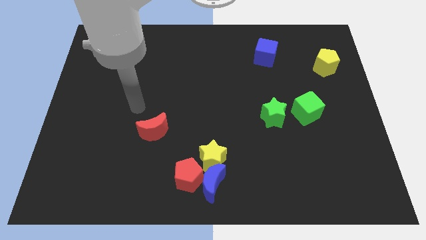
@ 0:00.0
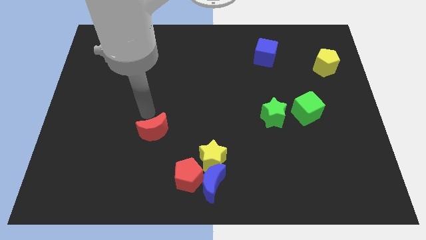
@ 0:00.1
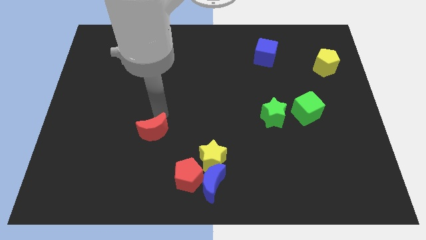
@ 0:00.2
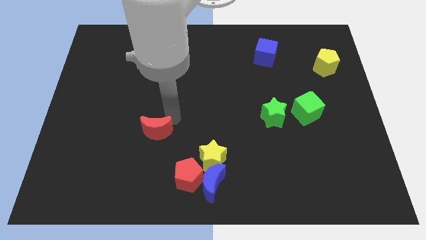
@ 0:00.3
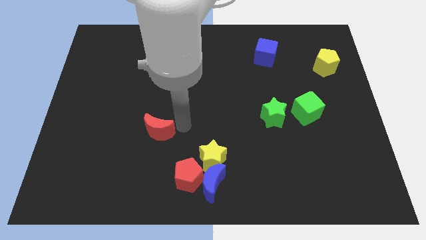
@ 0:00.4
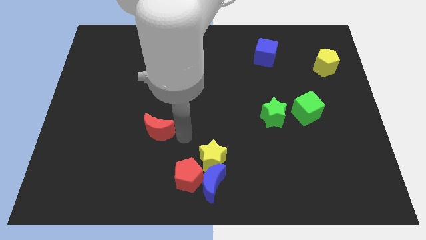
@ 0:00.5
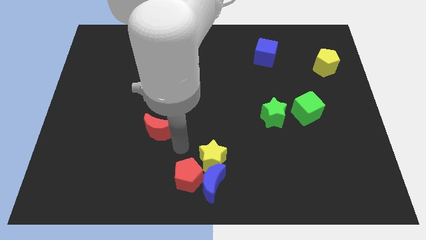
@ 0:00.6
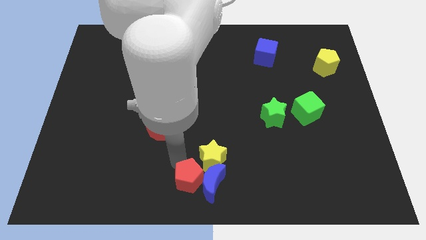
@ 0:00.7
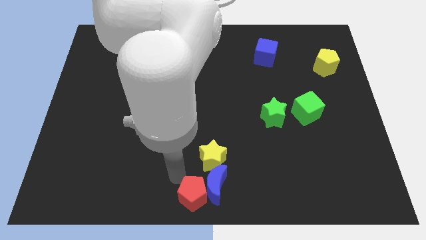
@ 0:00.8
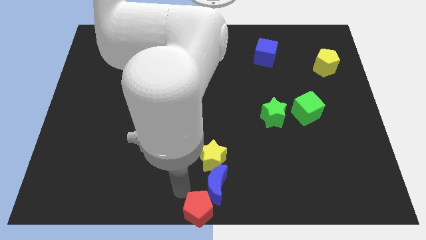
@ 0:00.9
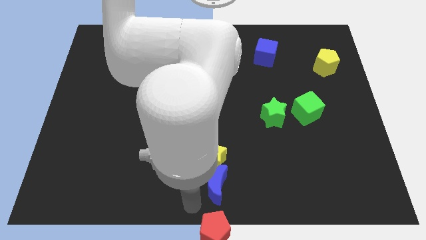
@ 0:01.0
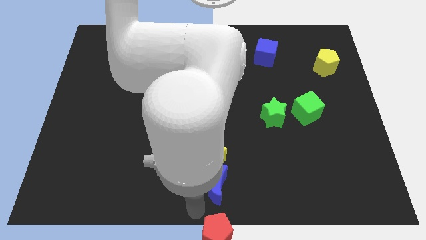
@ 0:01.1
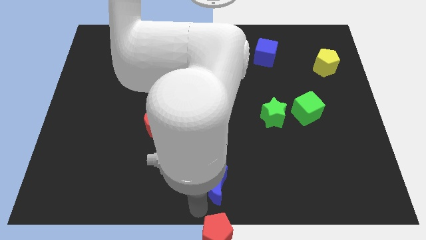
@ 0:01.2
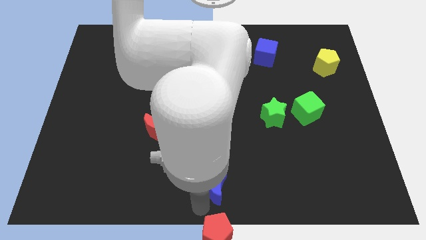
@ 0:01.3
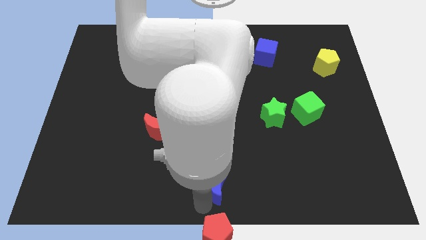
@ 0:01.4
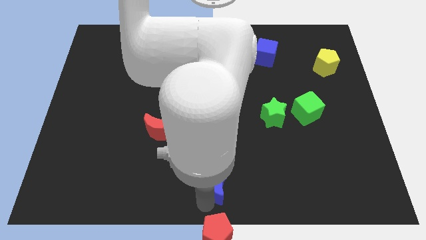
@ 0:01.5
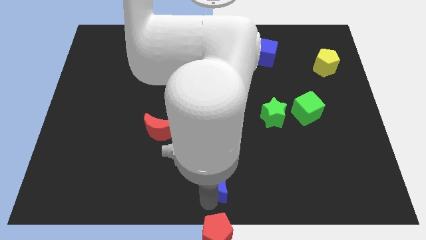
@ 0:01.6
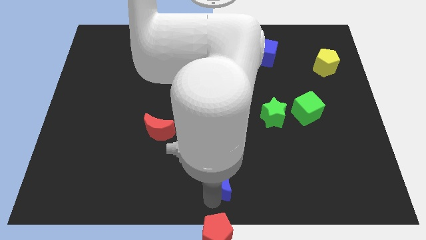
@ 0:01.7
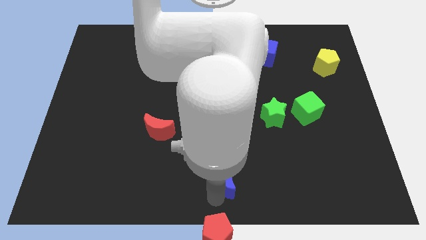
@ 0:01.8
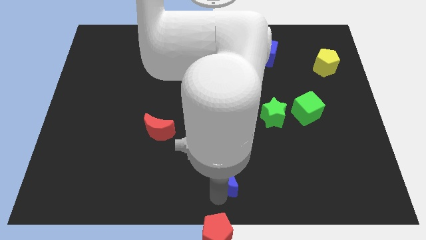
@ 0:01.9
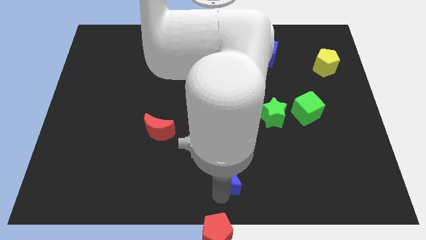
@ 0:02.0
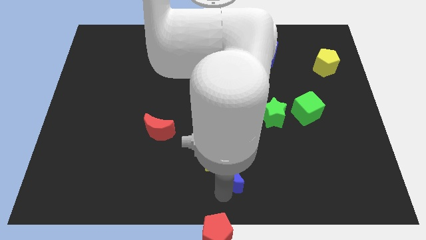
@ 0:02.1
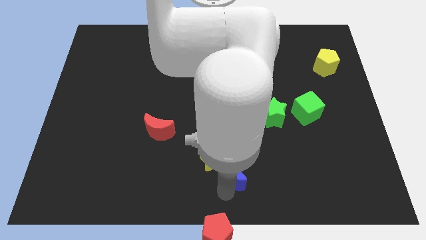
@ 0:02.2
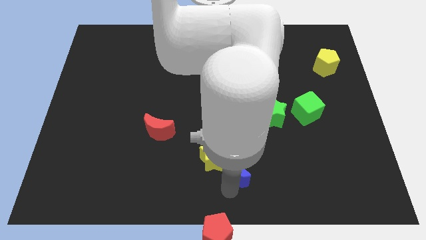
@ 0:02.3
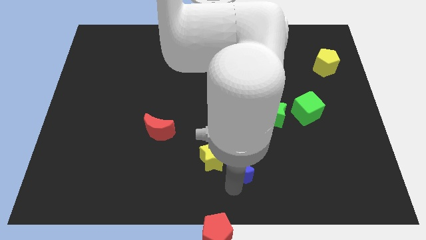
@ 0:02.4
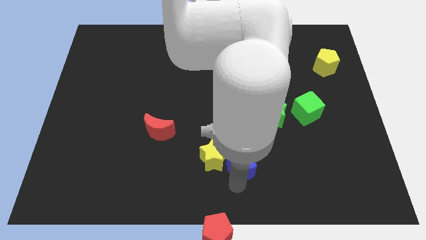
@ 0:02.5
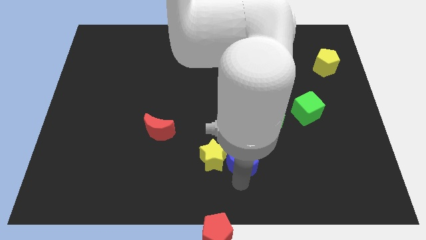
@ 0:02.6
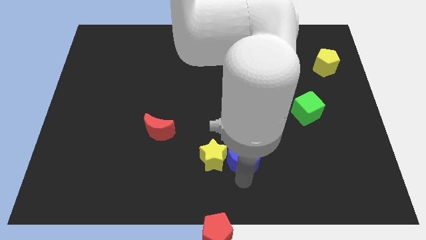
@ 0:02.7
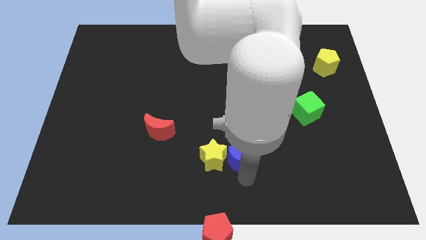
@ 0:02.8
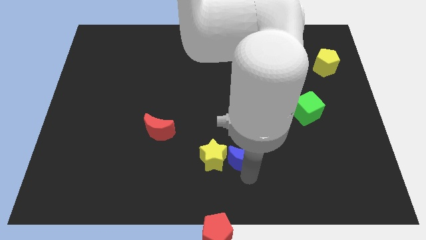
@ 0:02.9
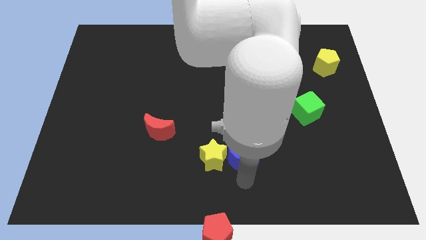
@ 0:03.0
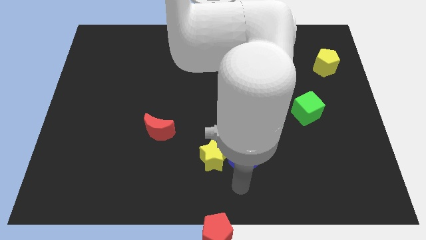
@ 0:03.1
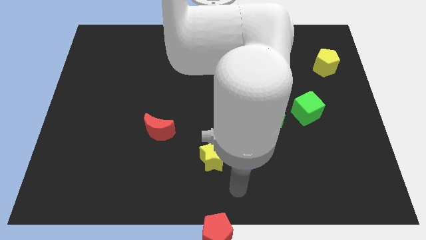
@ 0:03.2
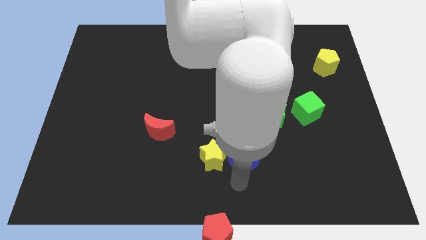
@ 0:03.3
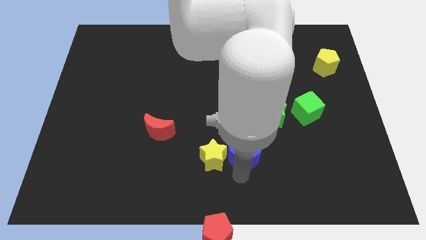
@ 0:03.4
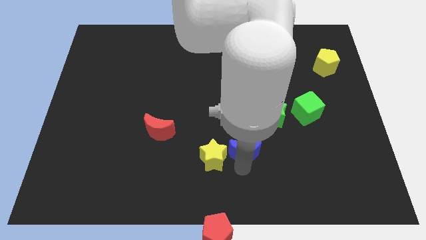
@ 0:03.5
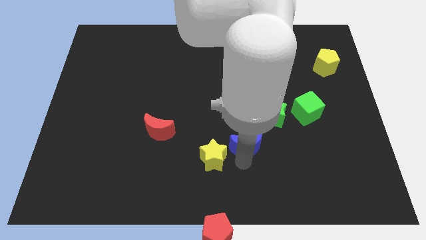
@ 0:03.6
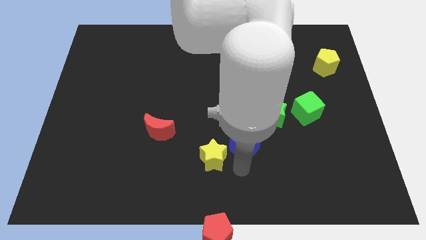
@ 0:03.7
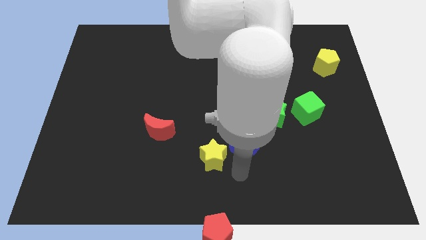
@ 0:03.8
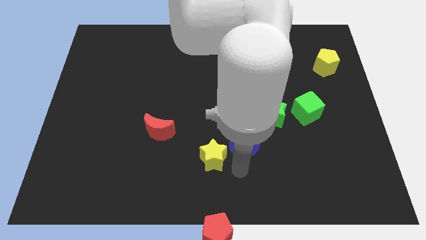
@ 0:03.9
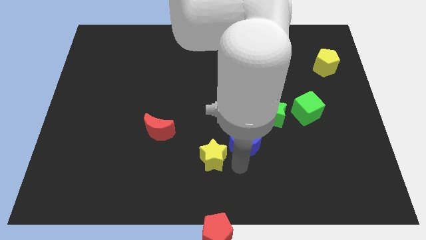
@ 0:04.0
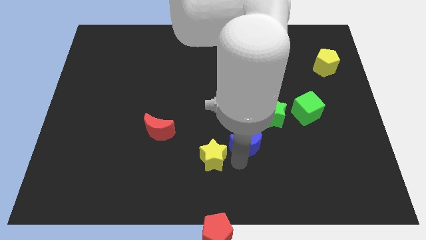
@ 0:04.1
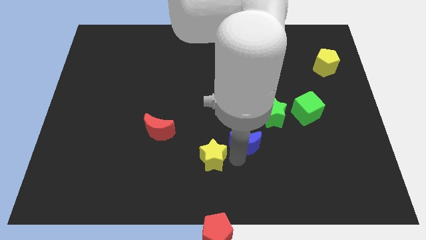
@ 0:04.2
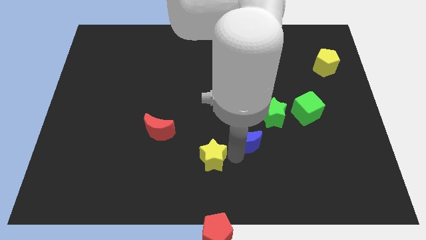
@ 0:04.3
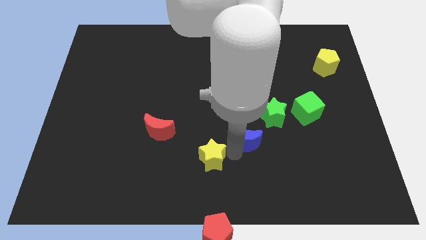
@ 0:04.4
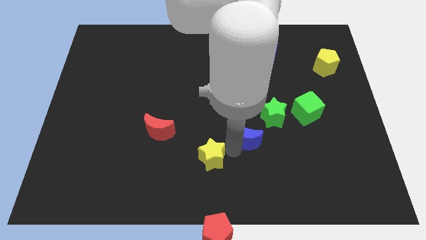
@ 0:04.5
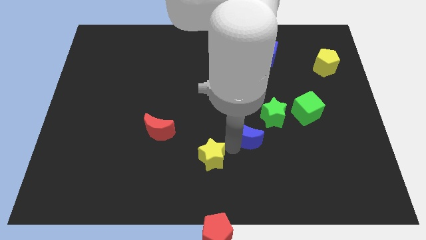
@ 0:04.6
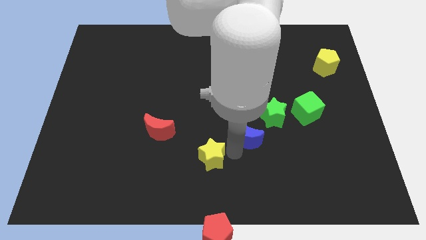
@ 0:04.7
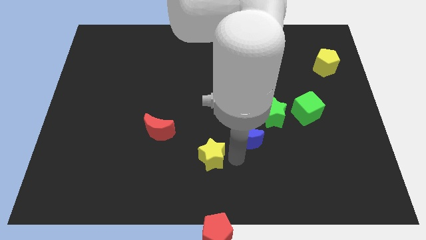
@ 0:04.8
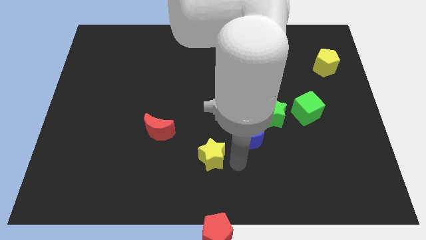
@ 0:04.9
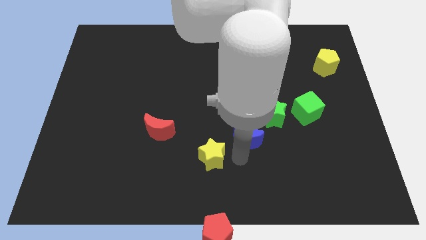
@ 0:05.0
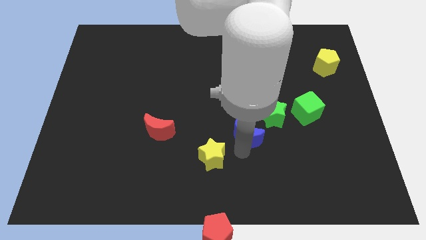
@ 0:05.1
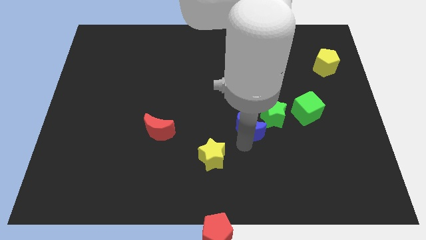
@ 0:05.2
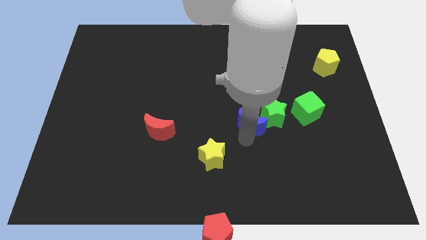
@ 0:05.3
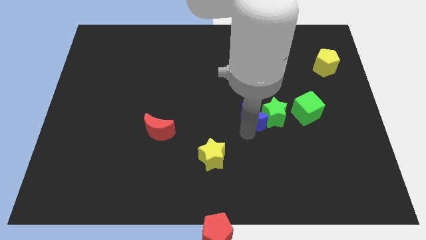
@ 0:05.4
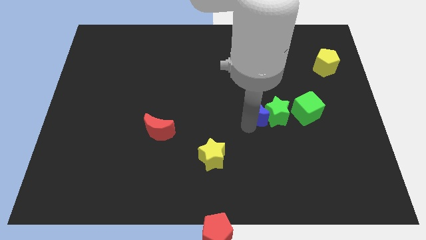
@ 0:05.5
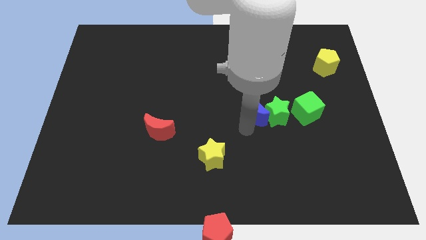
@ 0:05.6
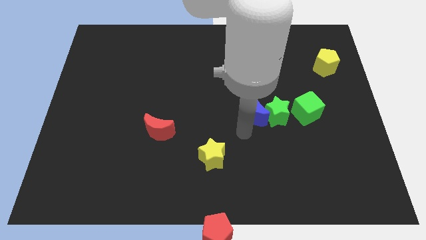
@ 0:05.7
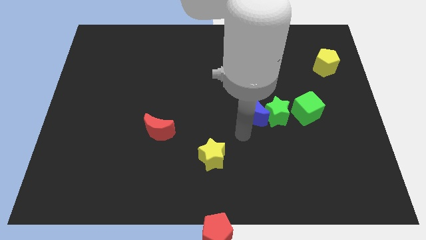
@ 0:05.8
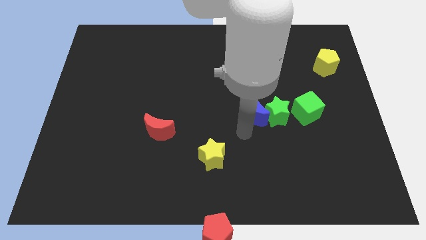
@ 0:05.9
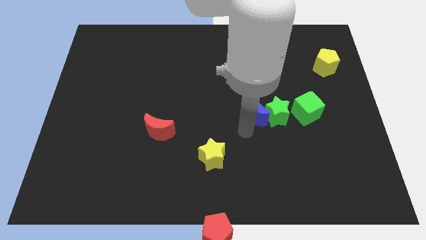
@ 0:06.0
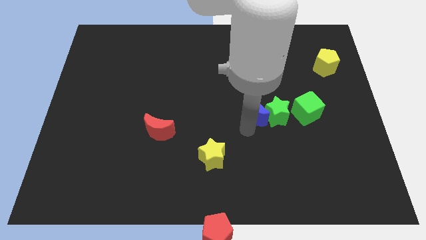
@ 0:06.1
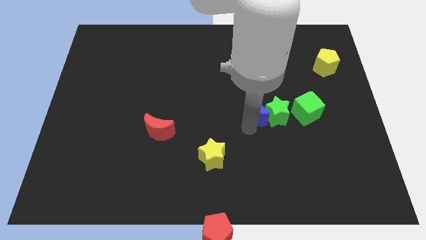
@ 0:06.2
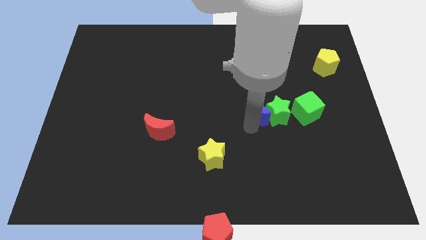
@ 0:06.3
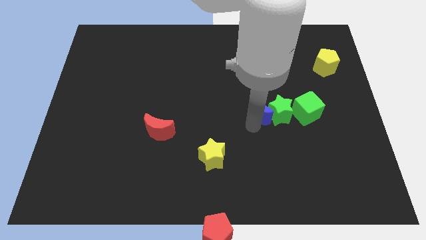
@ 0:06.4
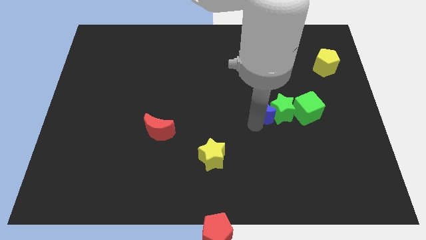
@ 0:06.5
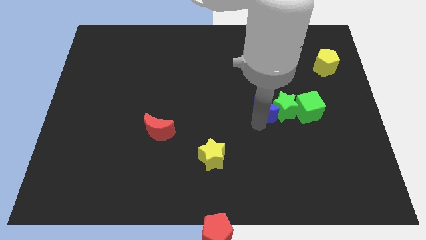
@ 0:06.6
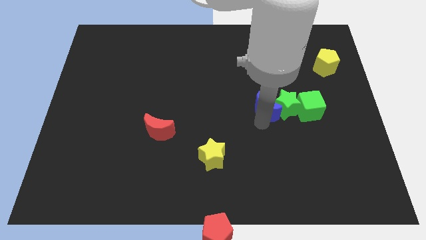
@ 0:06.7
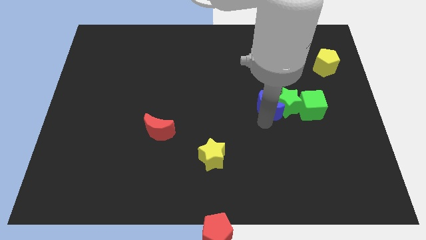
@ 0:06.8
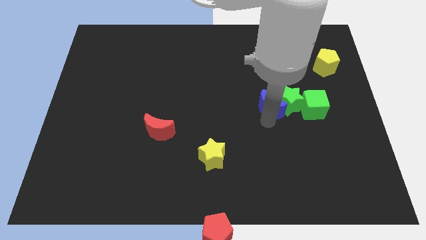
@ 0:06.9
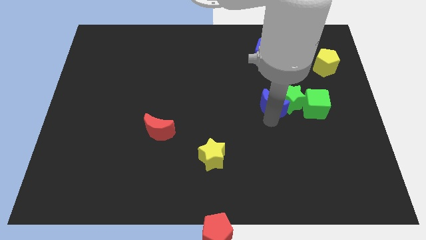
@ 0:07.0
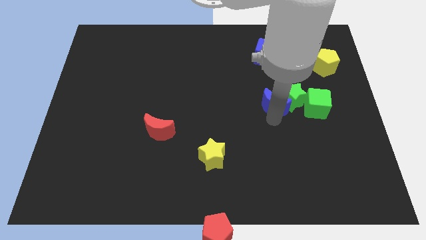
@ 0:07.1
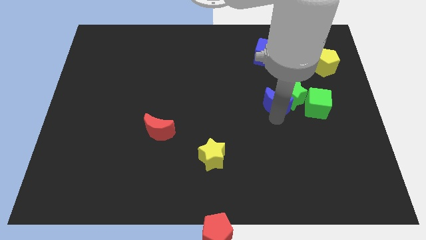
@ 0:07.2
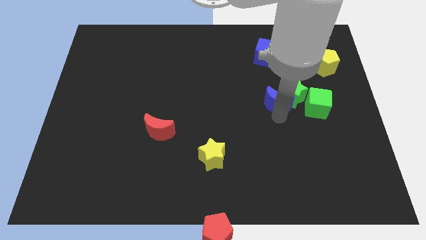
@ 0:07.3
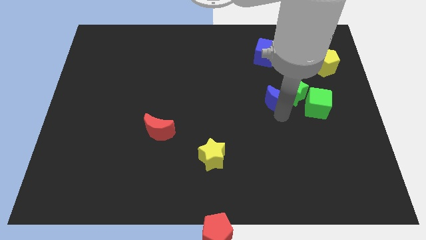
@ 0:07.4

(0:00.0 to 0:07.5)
move the blue moon below the blue cube
